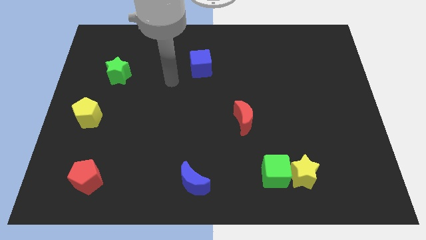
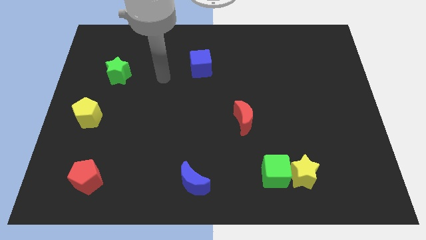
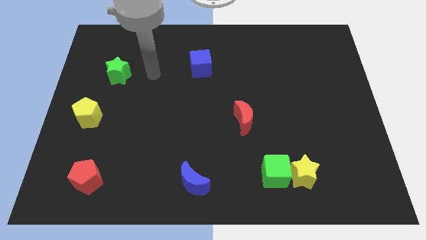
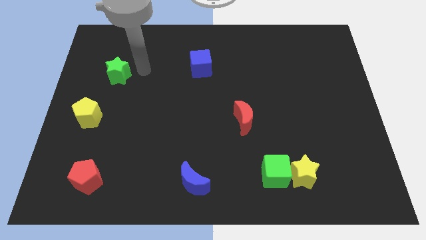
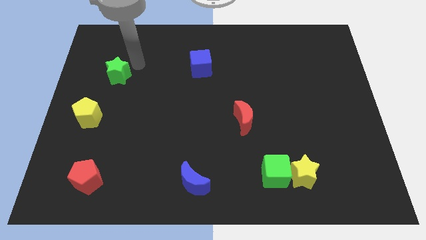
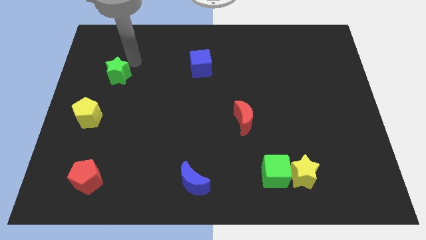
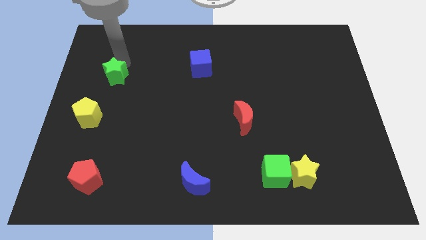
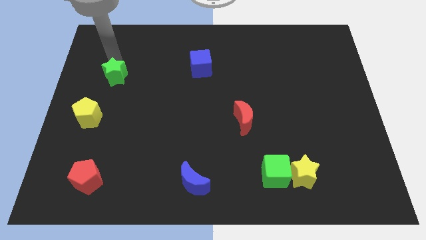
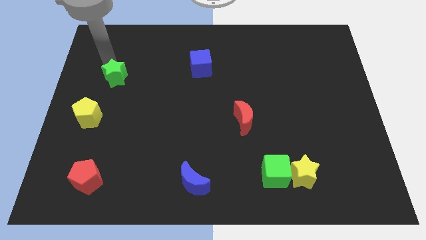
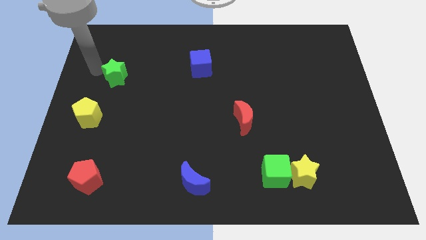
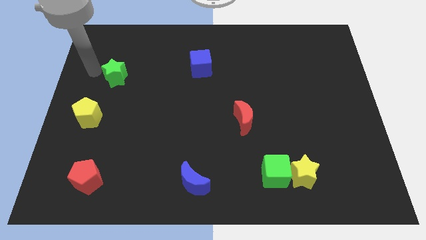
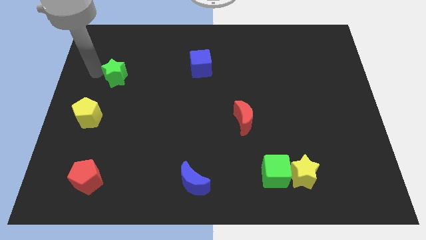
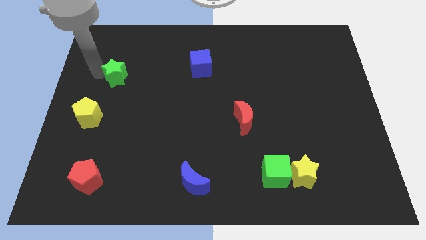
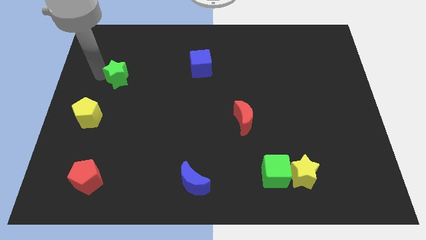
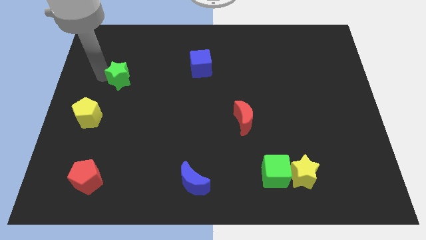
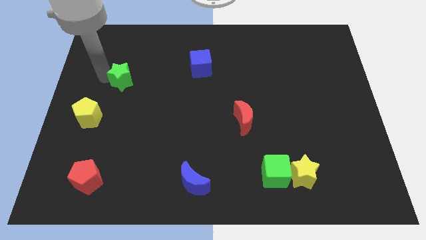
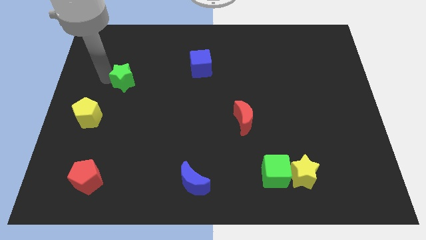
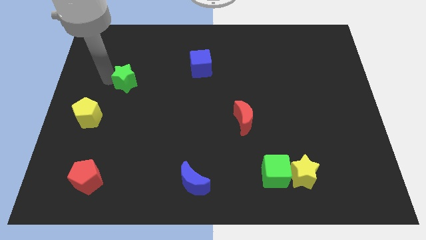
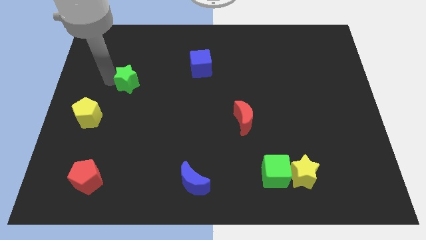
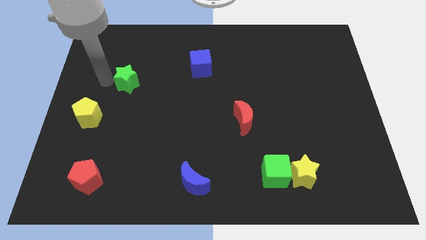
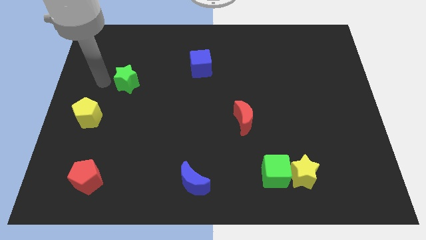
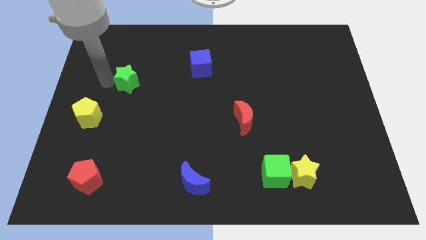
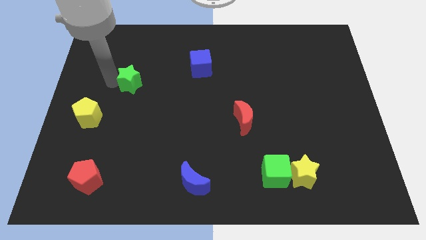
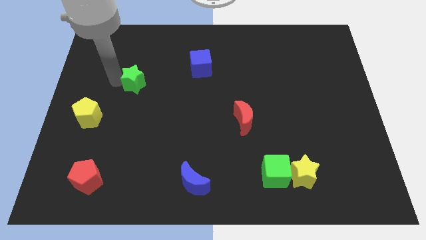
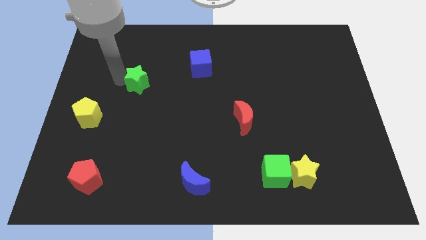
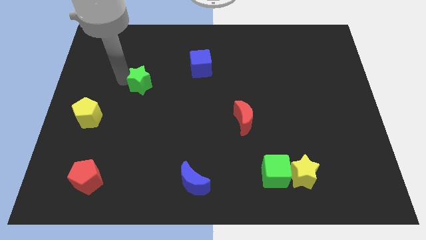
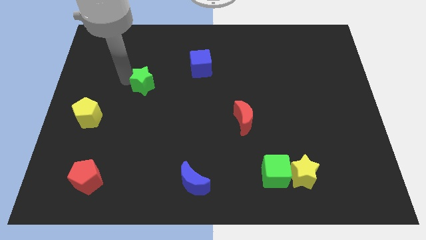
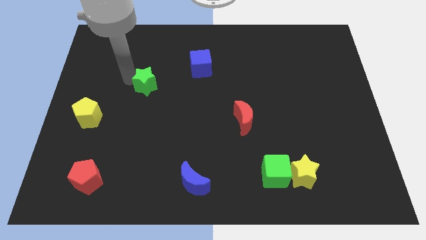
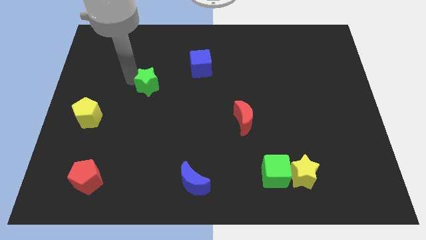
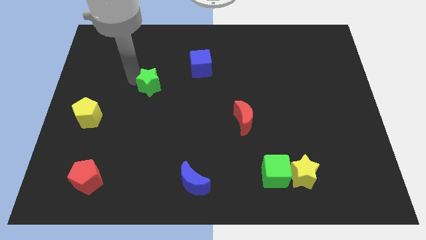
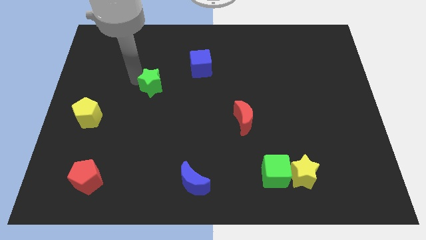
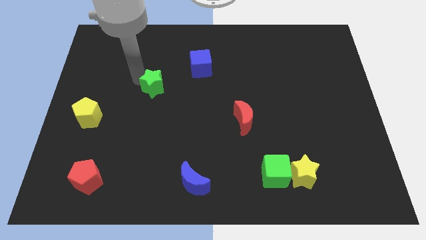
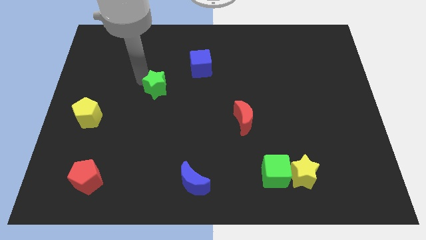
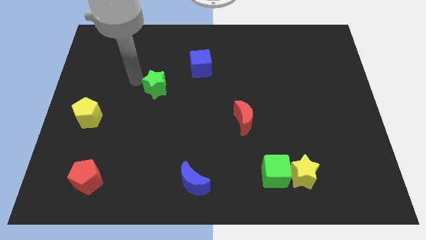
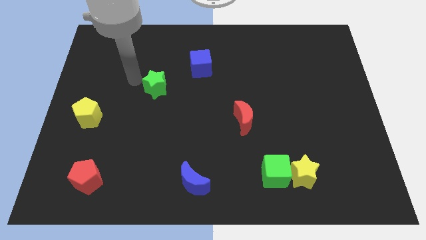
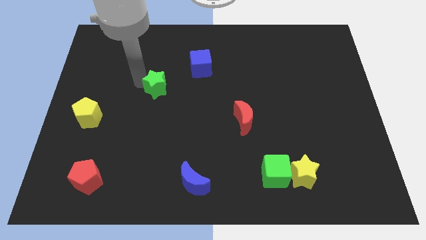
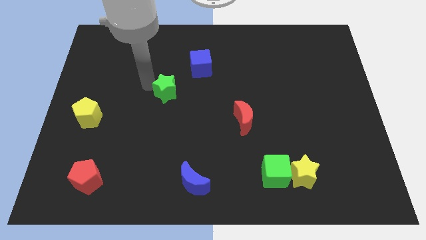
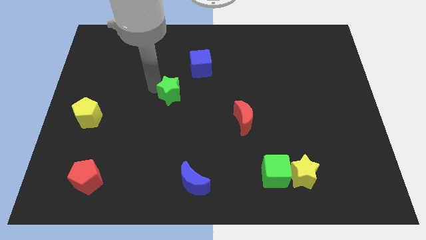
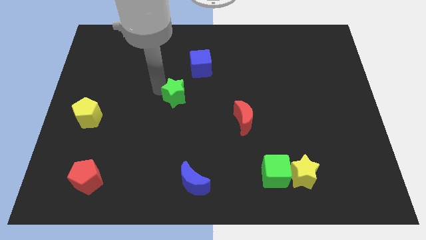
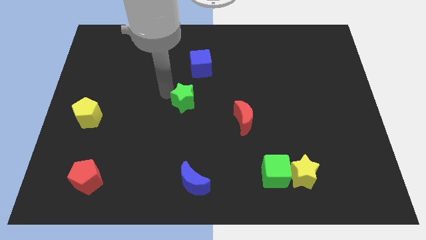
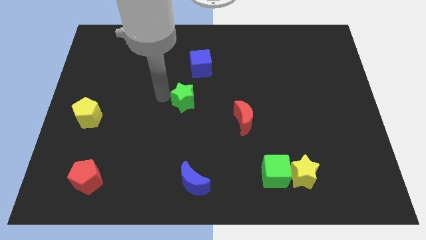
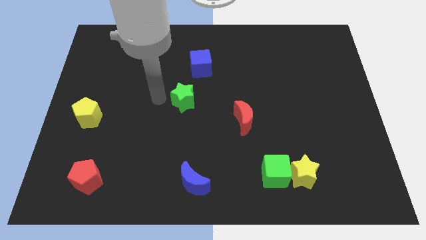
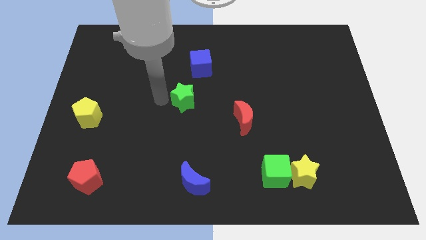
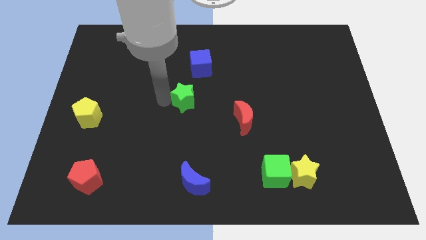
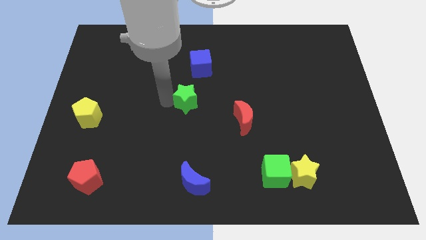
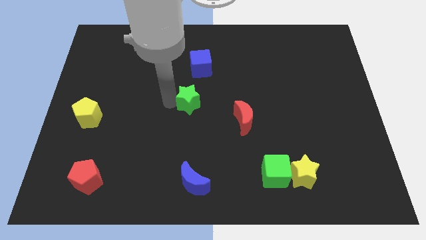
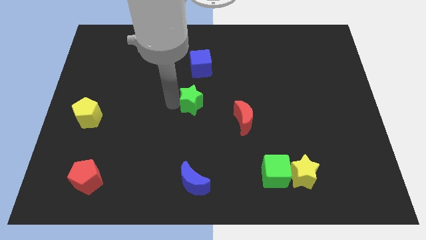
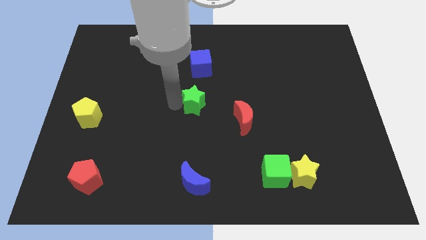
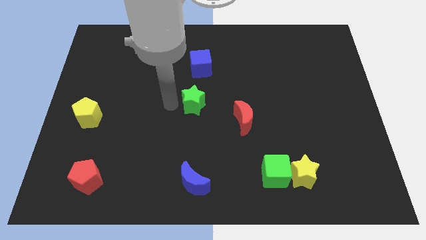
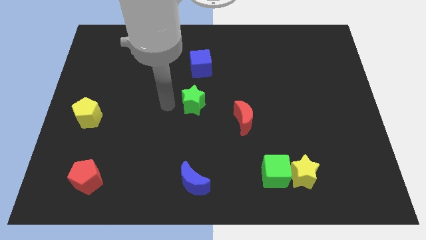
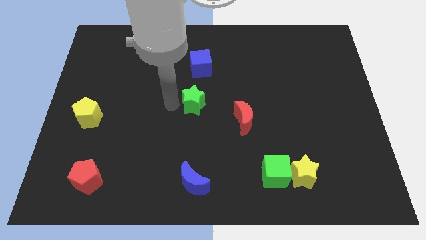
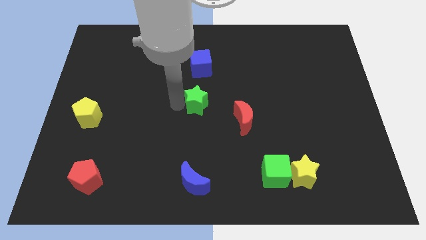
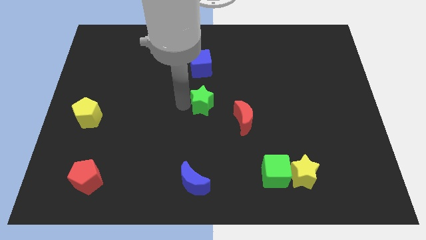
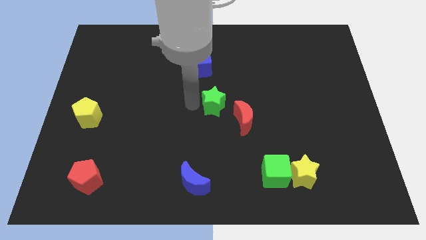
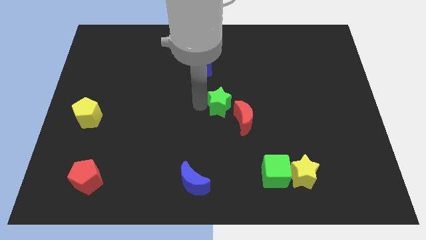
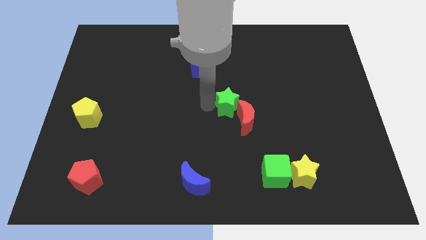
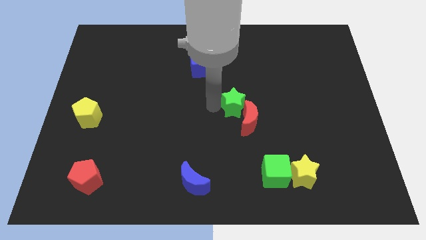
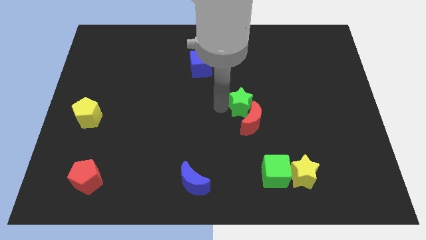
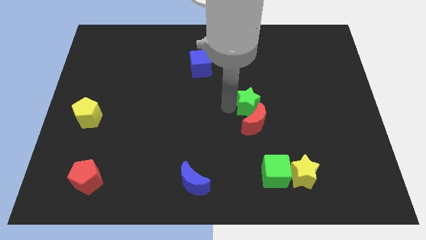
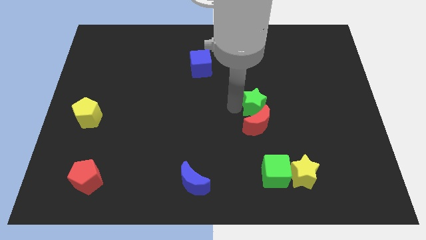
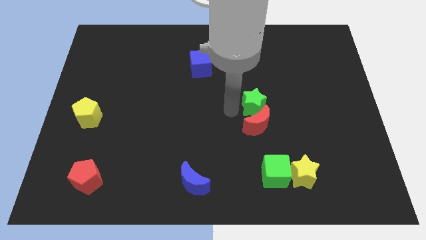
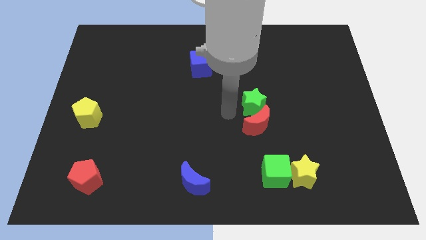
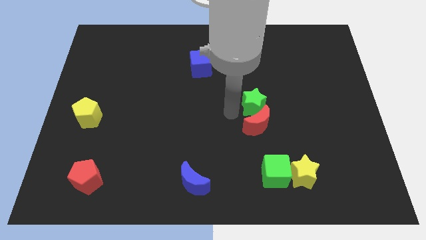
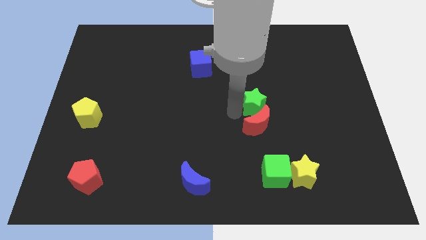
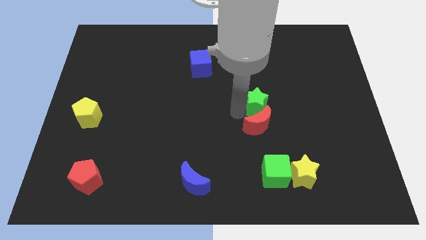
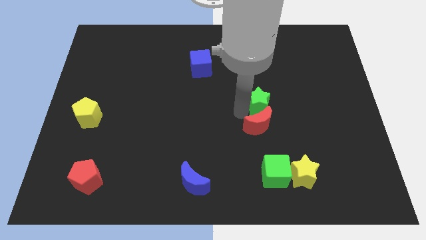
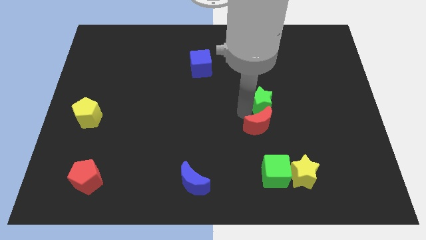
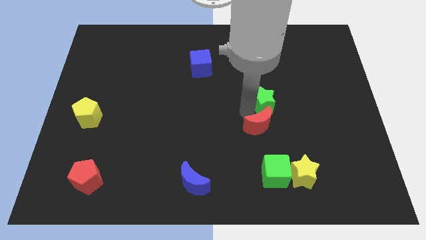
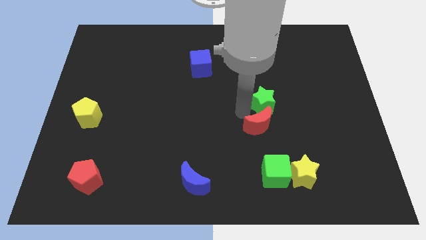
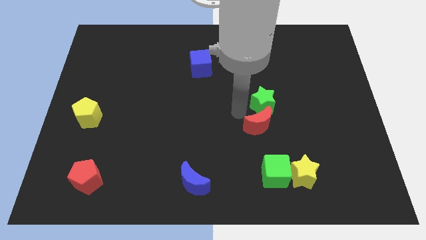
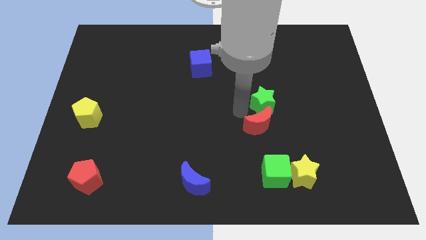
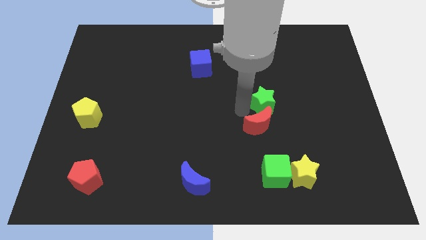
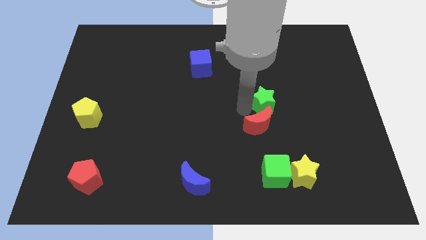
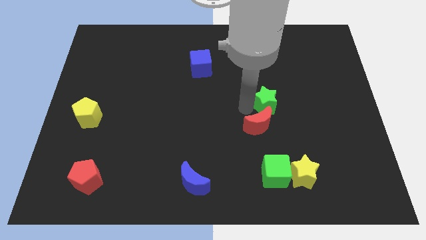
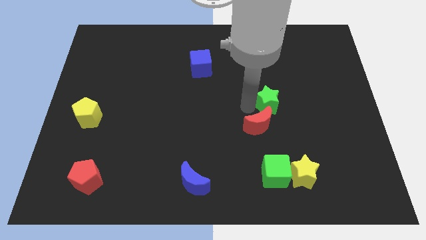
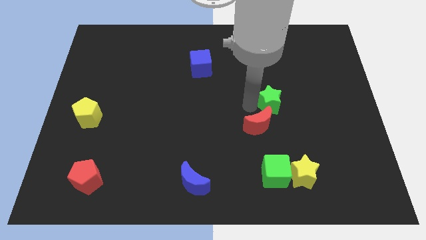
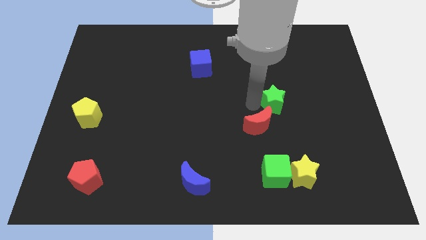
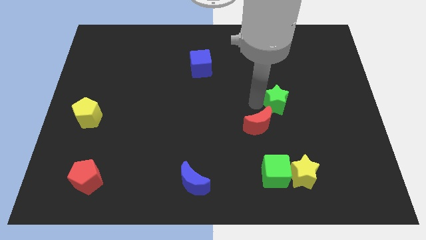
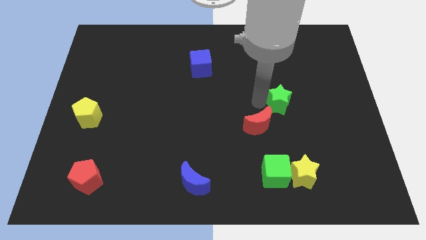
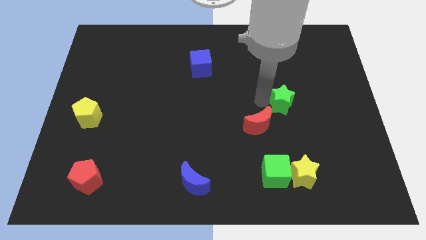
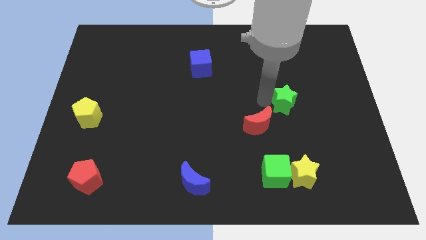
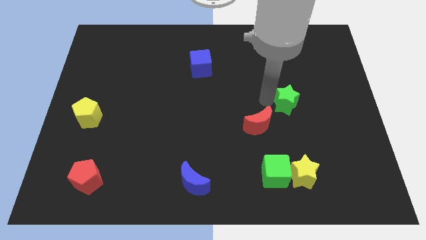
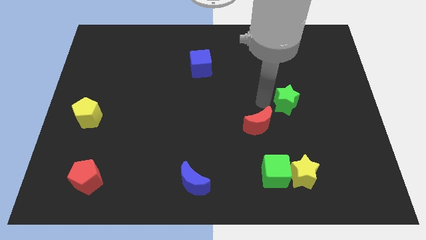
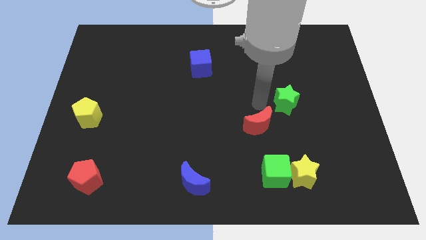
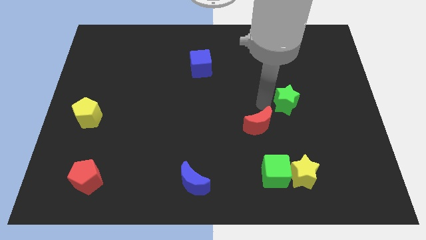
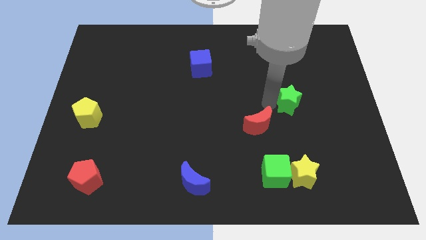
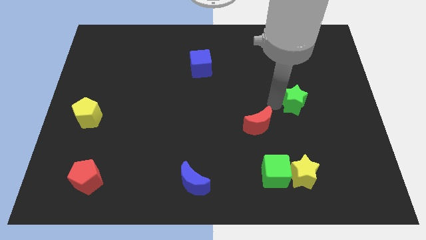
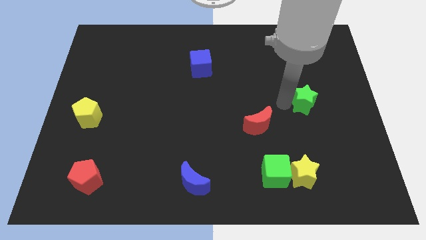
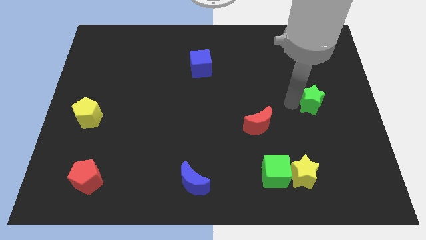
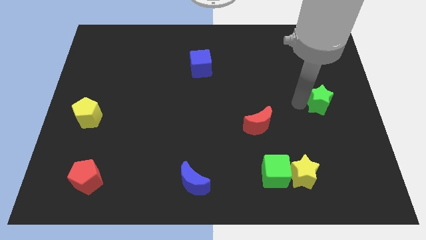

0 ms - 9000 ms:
push the green star to the center right
